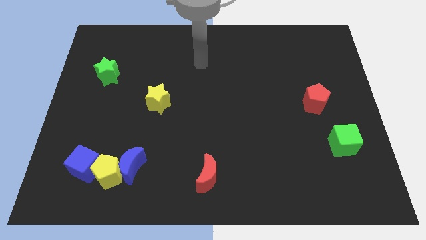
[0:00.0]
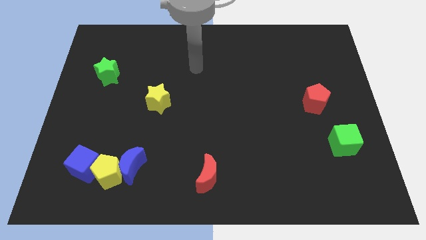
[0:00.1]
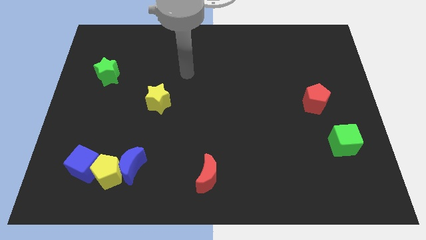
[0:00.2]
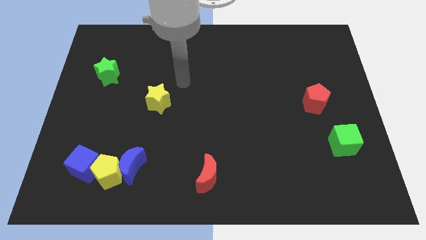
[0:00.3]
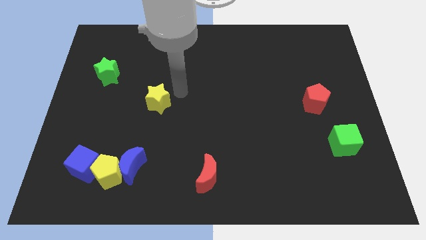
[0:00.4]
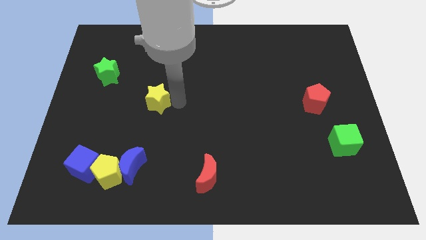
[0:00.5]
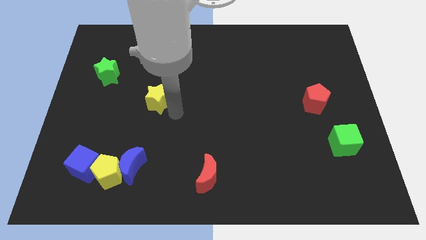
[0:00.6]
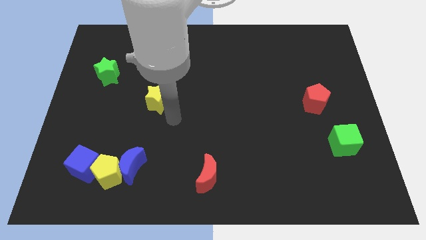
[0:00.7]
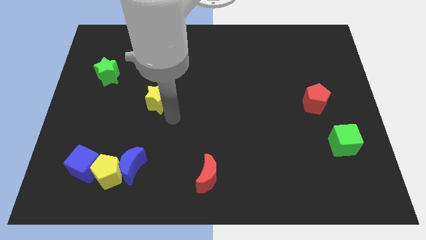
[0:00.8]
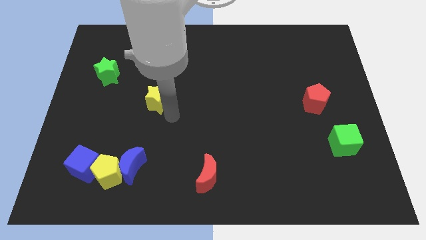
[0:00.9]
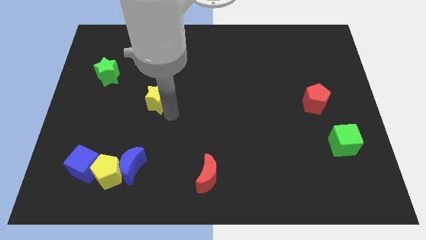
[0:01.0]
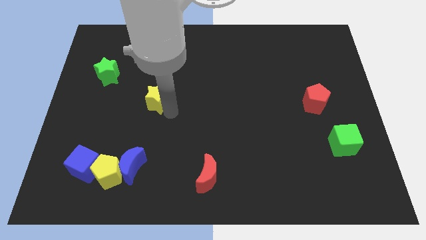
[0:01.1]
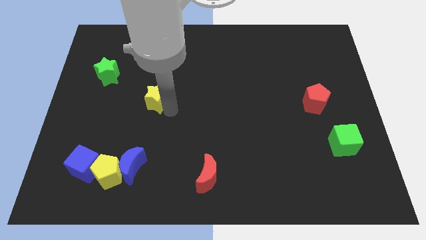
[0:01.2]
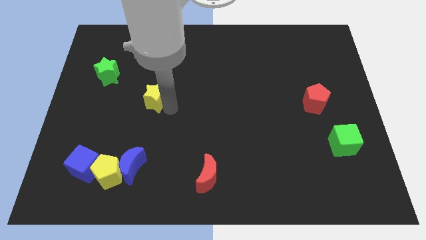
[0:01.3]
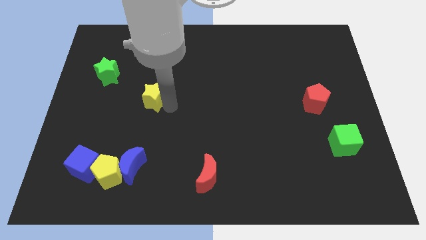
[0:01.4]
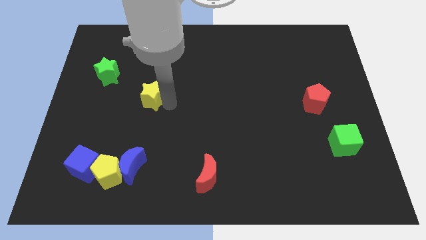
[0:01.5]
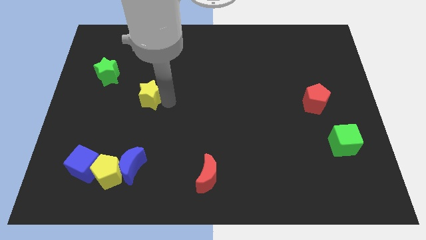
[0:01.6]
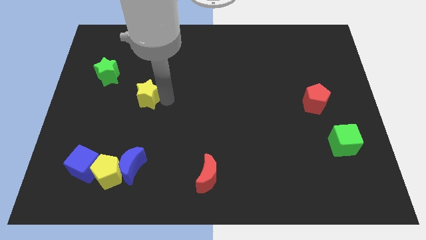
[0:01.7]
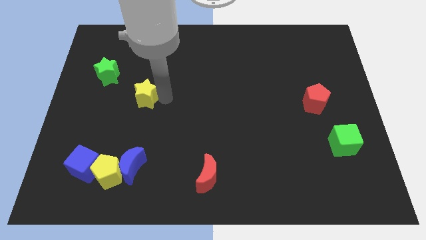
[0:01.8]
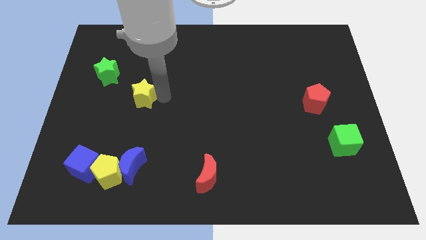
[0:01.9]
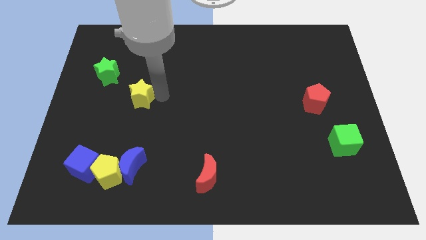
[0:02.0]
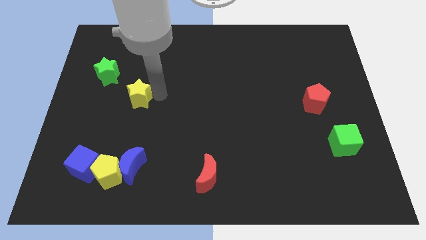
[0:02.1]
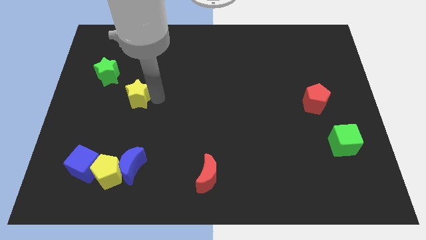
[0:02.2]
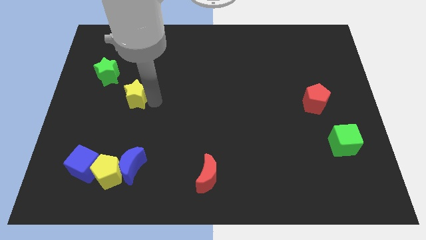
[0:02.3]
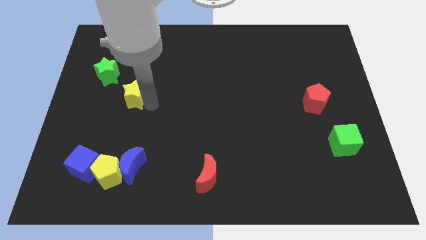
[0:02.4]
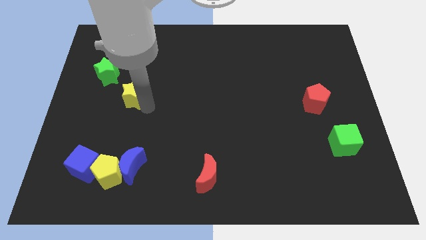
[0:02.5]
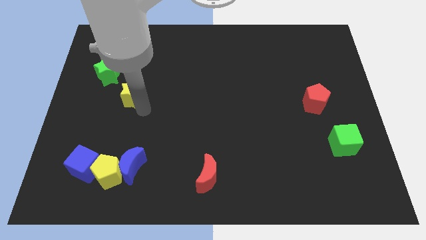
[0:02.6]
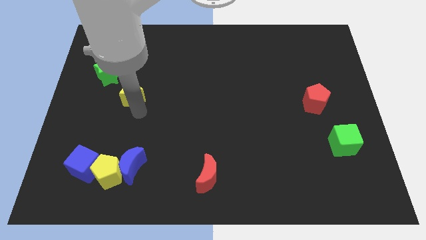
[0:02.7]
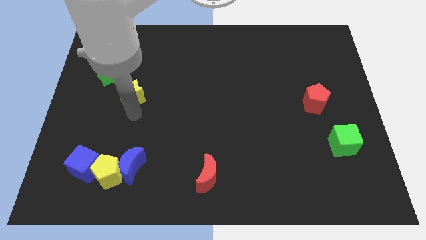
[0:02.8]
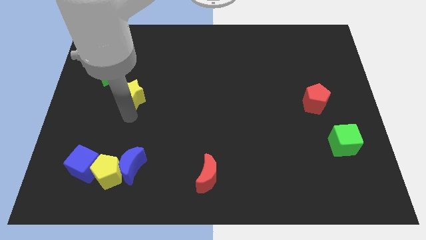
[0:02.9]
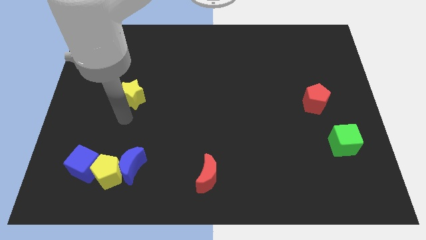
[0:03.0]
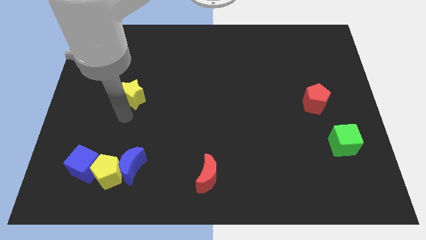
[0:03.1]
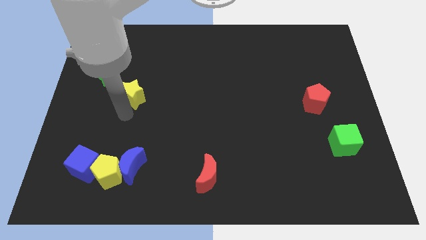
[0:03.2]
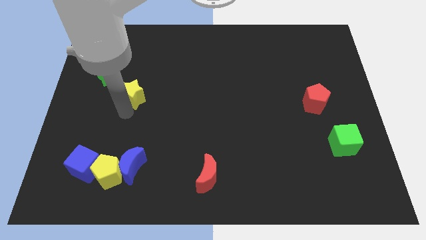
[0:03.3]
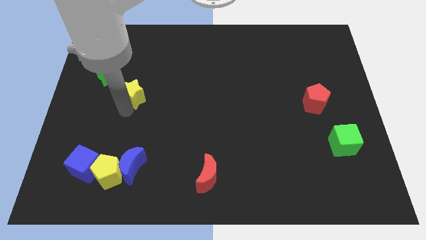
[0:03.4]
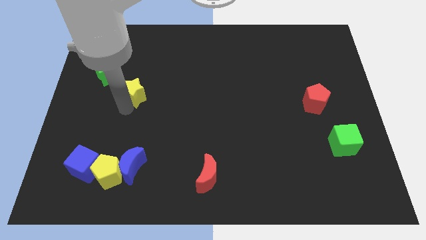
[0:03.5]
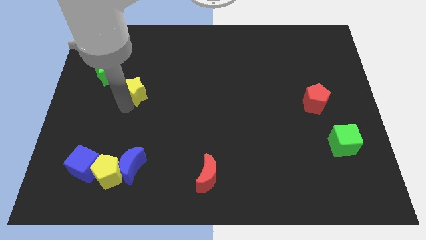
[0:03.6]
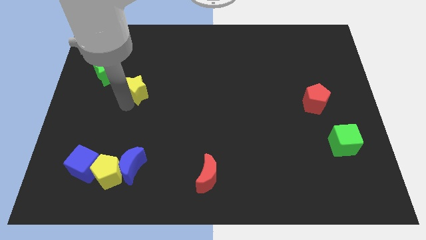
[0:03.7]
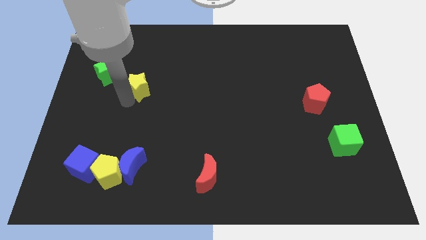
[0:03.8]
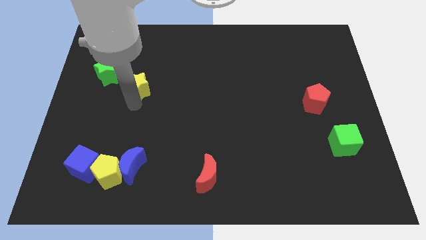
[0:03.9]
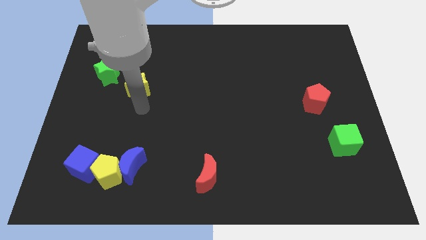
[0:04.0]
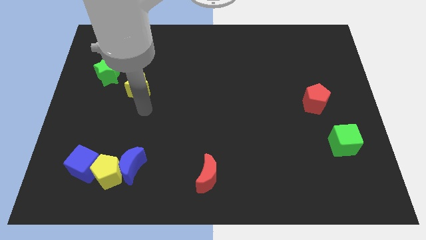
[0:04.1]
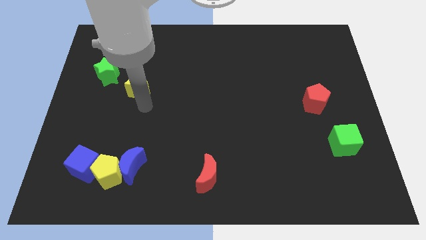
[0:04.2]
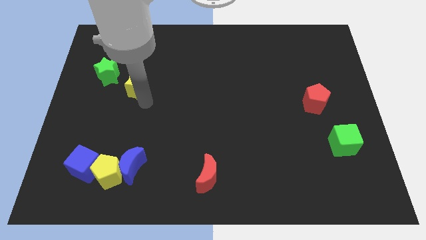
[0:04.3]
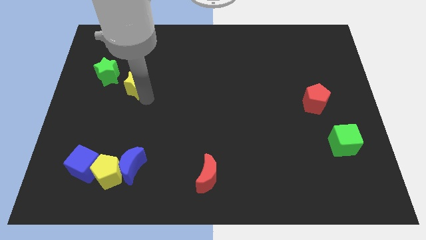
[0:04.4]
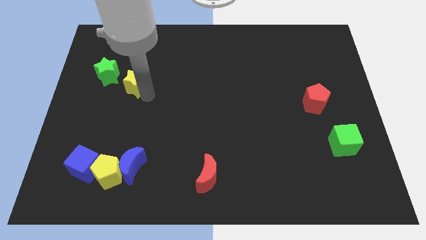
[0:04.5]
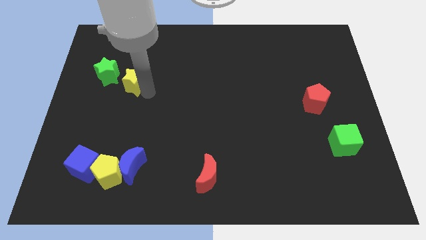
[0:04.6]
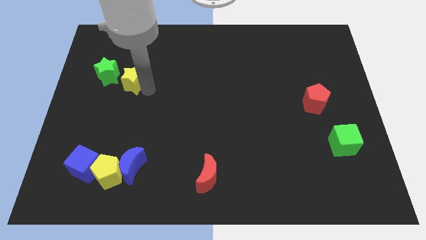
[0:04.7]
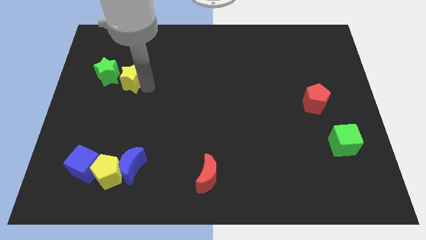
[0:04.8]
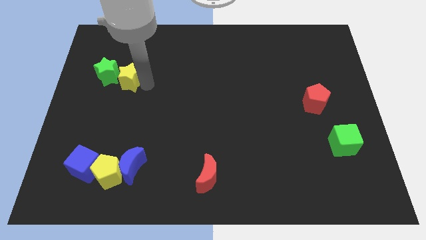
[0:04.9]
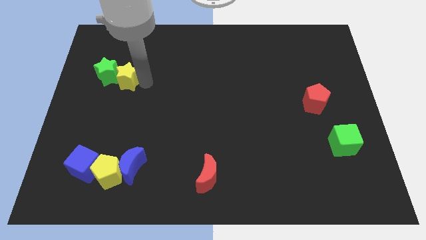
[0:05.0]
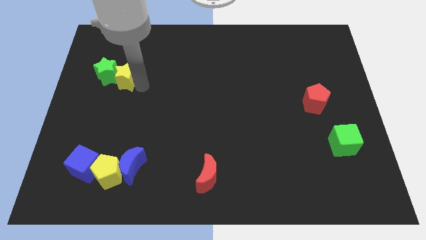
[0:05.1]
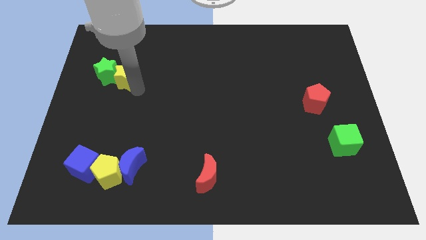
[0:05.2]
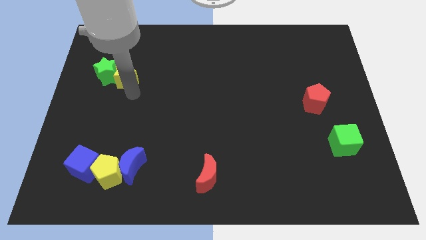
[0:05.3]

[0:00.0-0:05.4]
slide the yellow star to the top right side of the green star

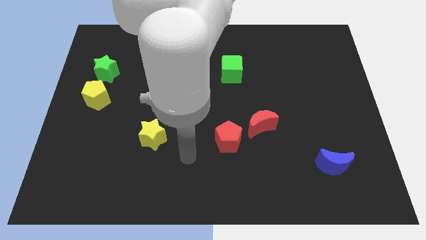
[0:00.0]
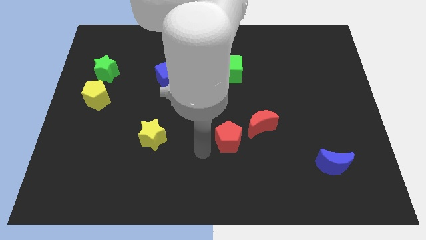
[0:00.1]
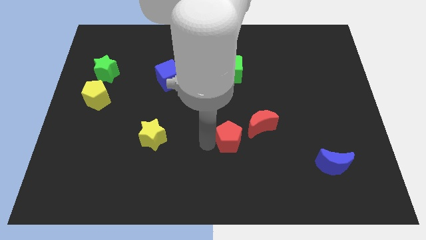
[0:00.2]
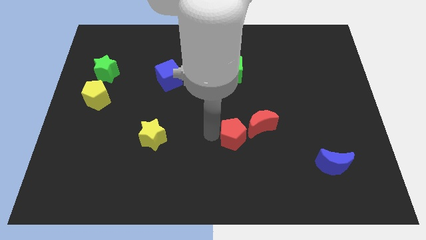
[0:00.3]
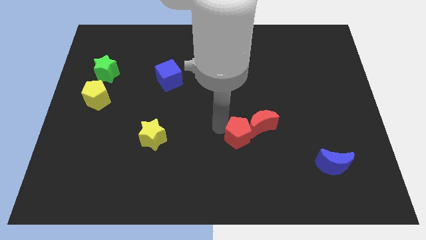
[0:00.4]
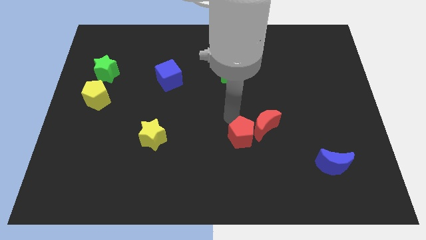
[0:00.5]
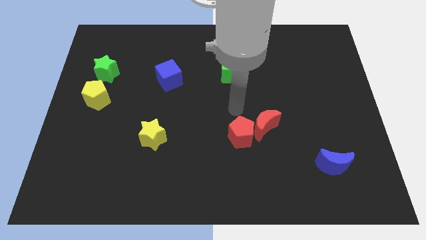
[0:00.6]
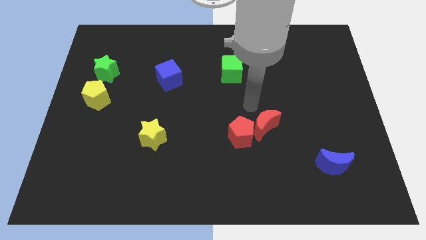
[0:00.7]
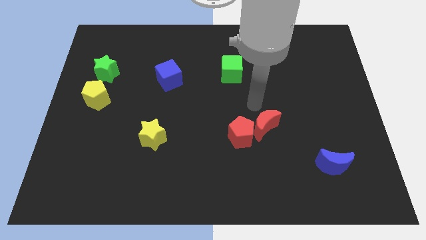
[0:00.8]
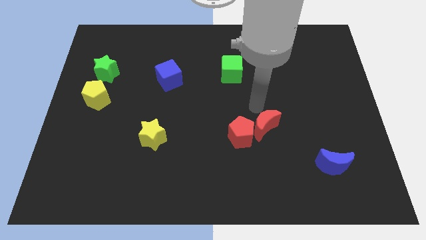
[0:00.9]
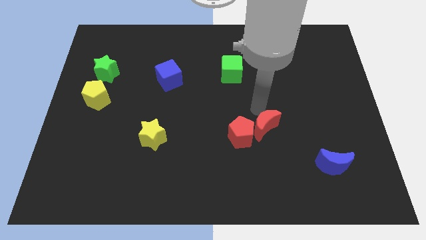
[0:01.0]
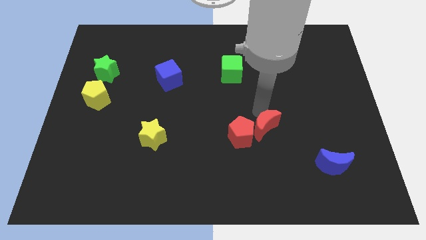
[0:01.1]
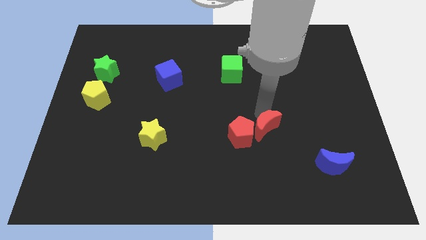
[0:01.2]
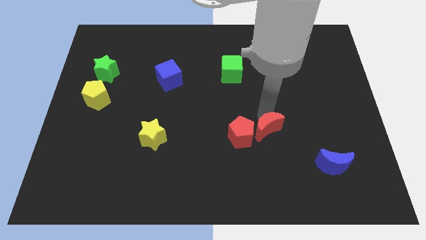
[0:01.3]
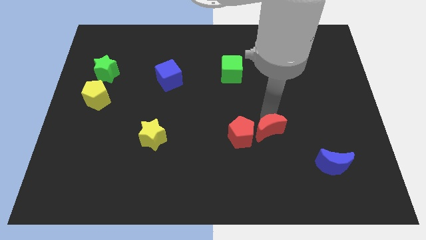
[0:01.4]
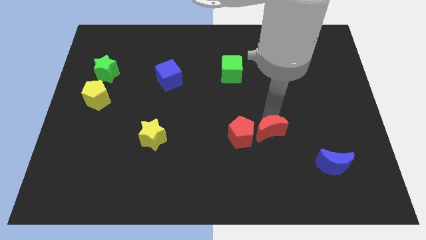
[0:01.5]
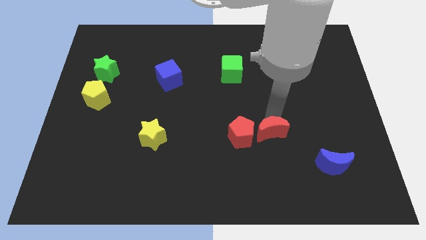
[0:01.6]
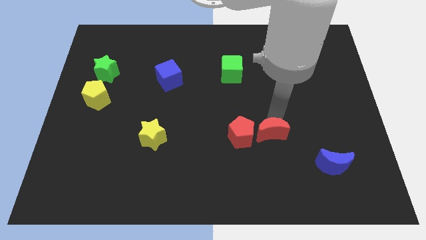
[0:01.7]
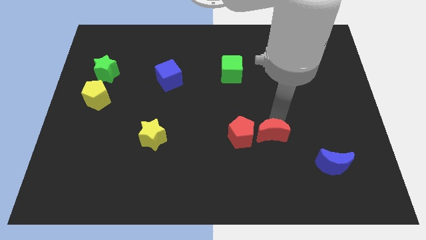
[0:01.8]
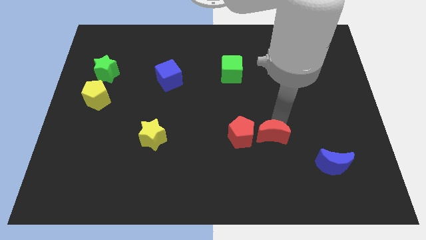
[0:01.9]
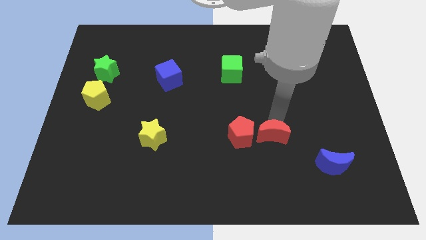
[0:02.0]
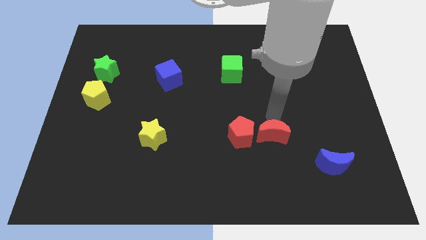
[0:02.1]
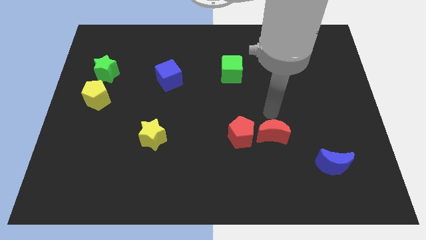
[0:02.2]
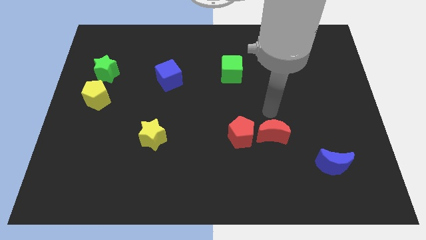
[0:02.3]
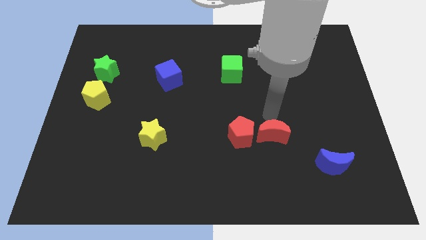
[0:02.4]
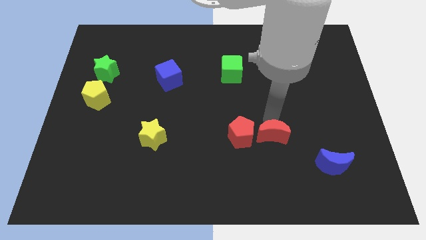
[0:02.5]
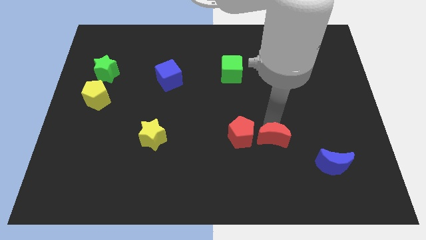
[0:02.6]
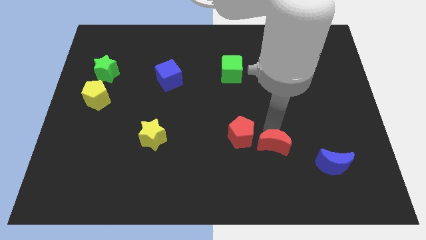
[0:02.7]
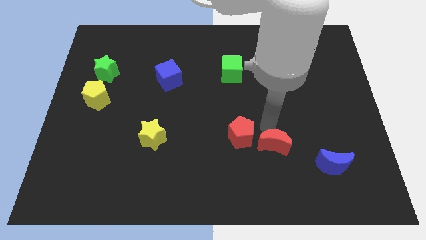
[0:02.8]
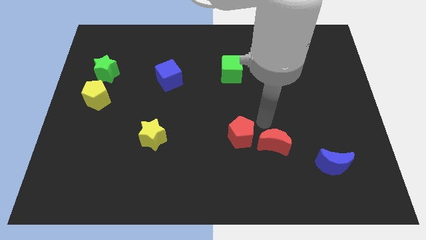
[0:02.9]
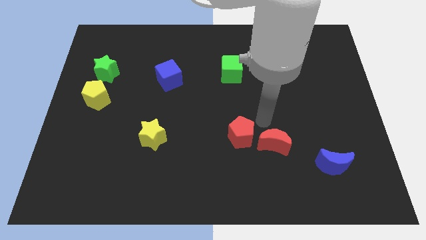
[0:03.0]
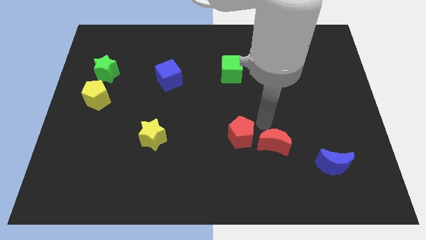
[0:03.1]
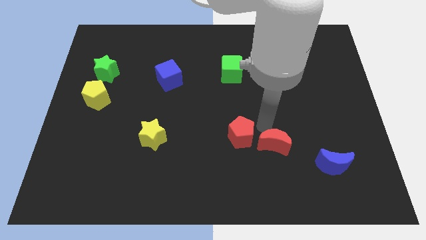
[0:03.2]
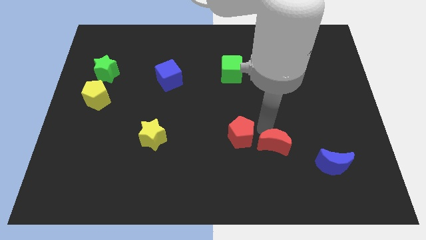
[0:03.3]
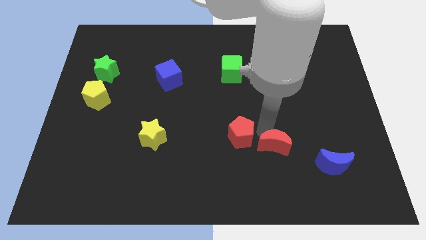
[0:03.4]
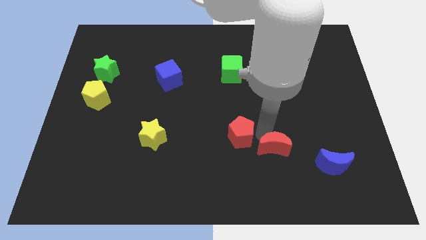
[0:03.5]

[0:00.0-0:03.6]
slide the red moon left of the blue moon
